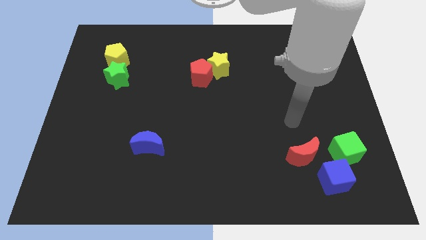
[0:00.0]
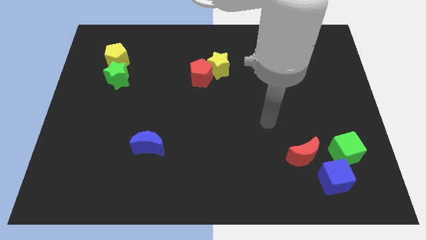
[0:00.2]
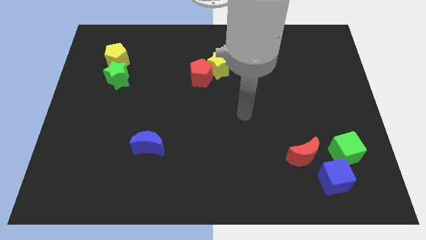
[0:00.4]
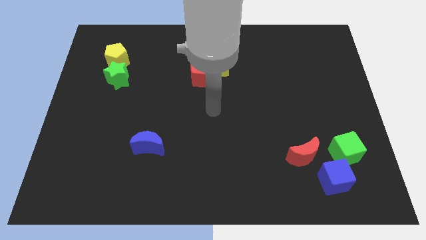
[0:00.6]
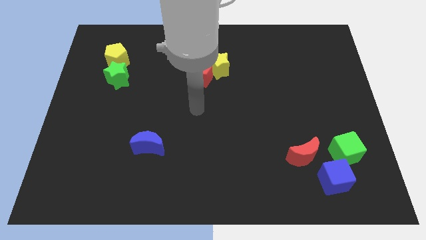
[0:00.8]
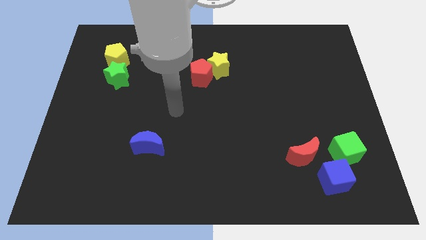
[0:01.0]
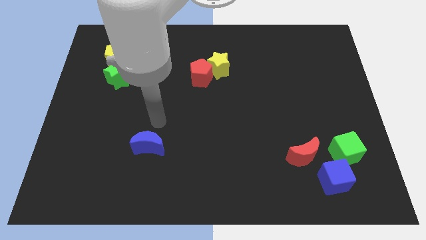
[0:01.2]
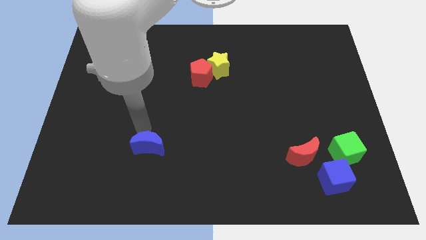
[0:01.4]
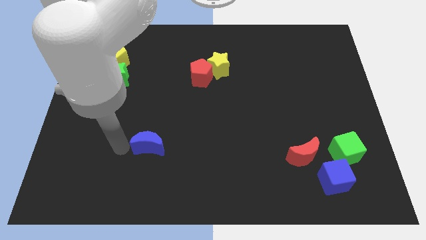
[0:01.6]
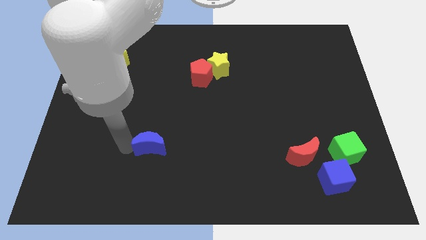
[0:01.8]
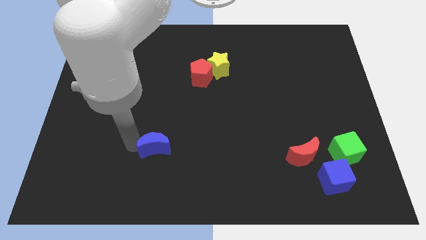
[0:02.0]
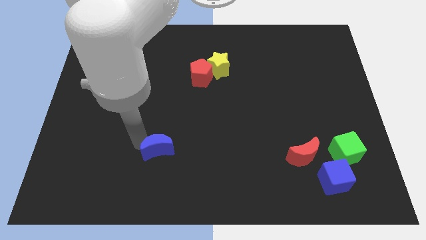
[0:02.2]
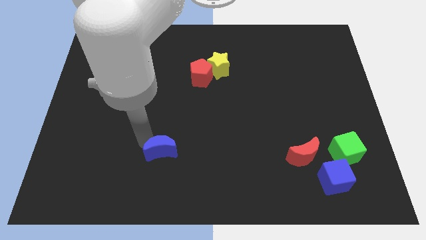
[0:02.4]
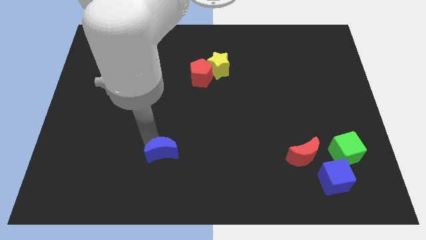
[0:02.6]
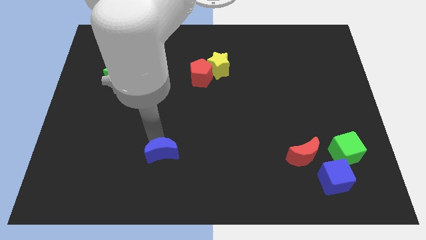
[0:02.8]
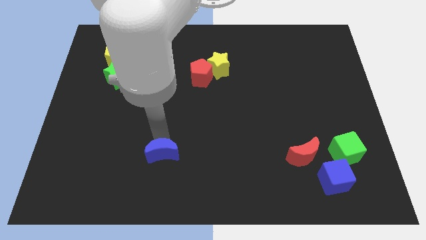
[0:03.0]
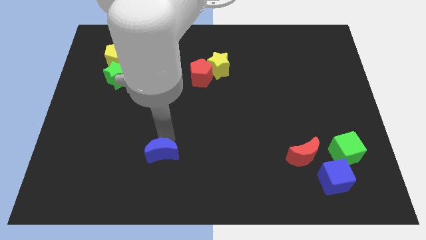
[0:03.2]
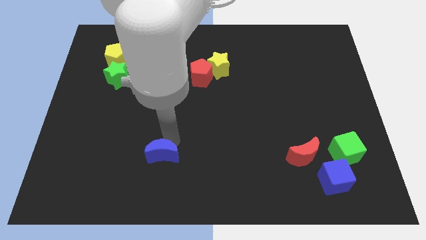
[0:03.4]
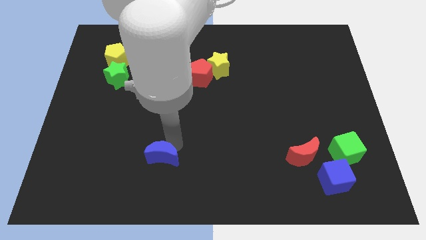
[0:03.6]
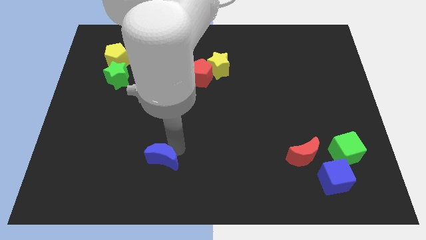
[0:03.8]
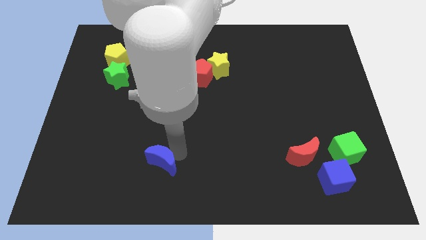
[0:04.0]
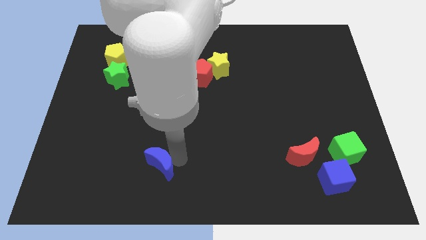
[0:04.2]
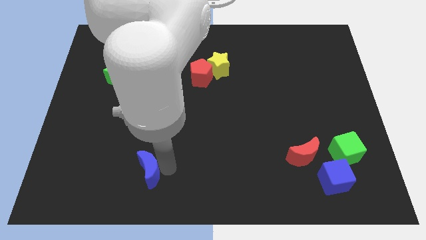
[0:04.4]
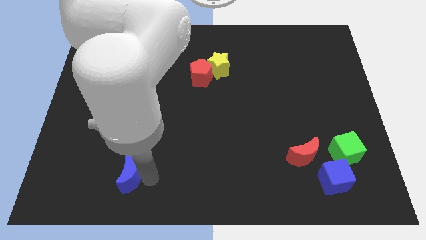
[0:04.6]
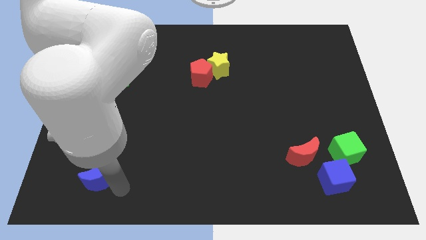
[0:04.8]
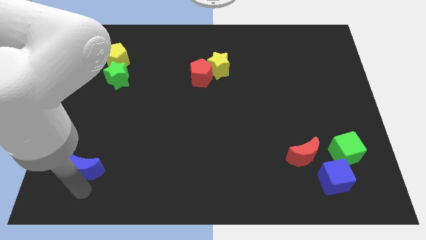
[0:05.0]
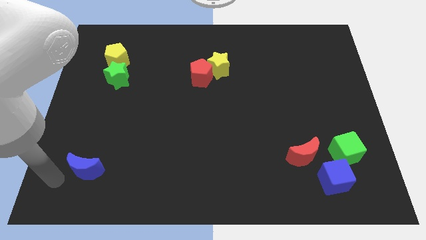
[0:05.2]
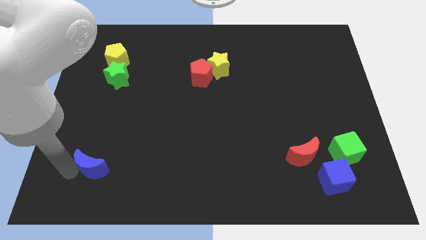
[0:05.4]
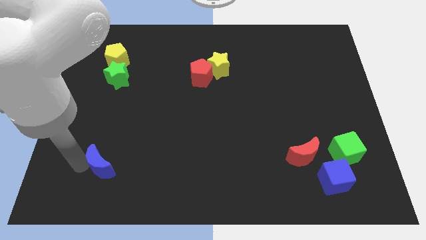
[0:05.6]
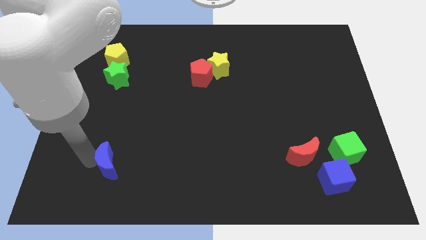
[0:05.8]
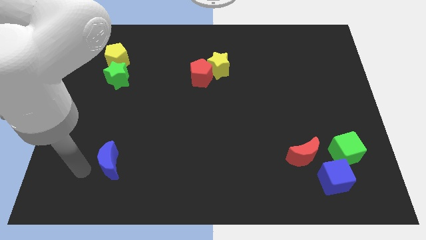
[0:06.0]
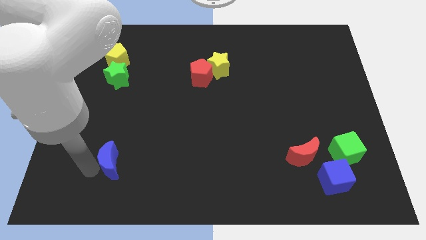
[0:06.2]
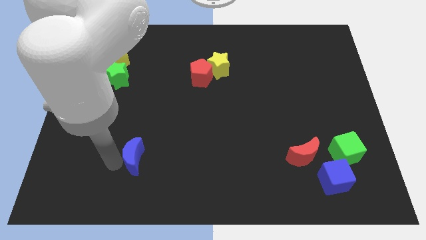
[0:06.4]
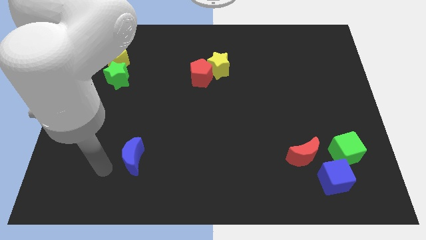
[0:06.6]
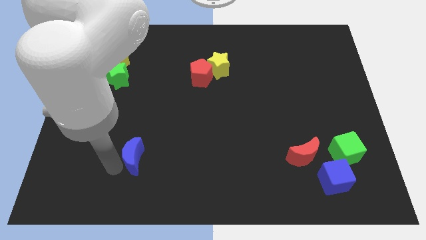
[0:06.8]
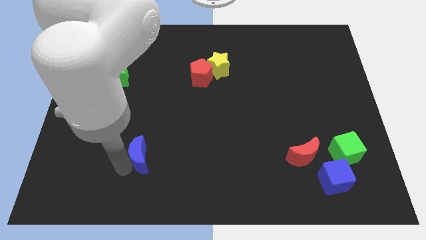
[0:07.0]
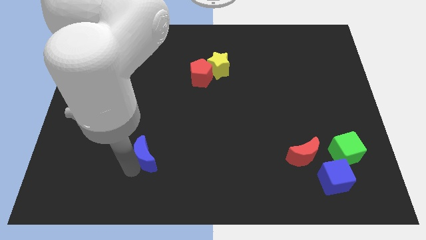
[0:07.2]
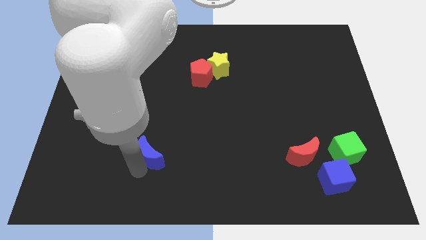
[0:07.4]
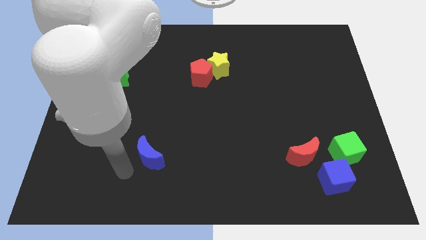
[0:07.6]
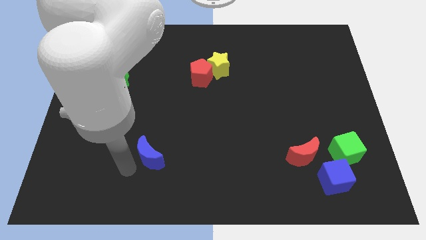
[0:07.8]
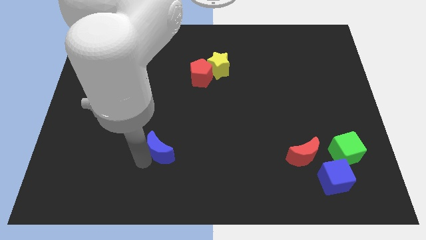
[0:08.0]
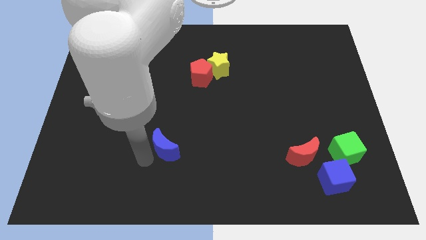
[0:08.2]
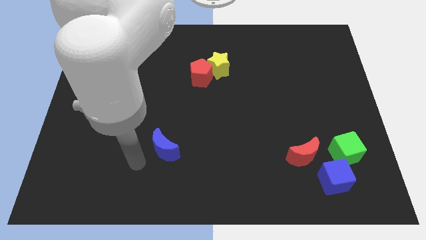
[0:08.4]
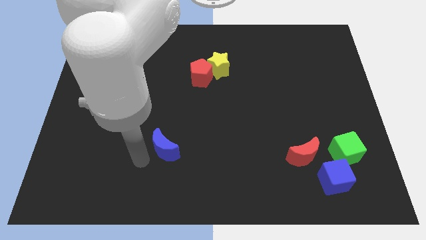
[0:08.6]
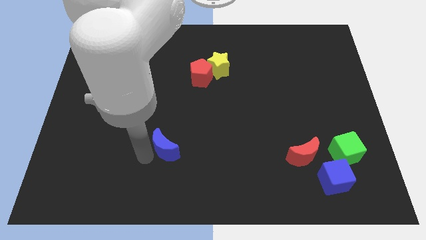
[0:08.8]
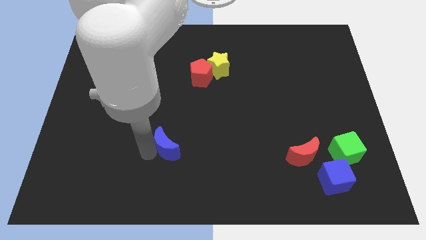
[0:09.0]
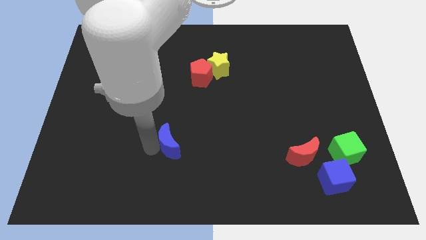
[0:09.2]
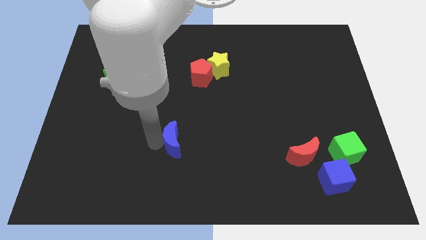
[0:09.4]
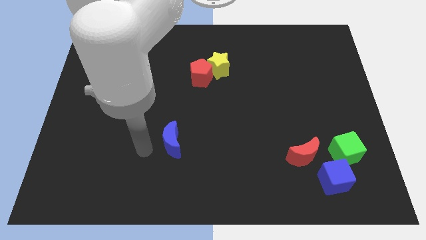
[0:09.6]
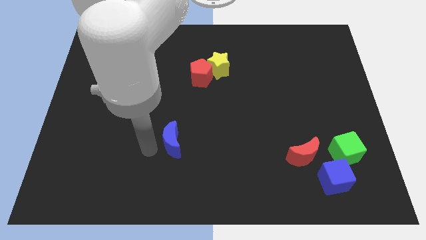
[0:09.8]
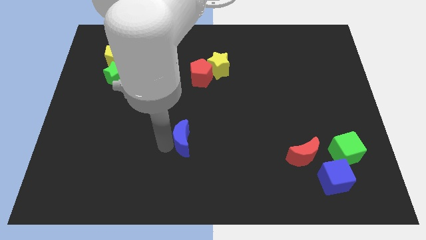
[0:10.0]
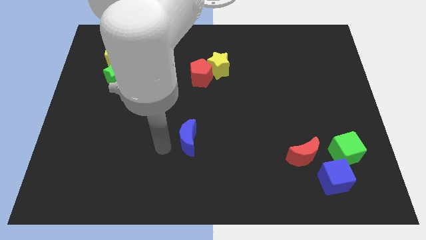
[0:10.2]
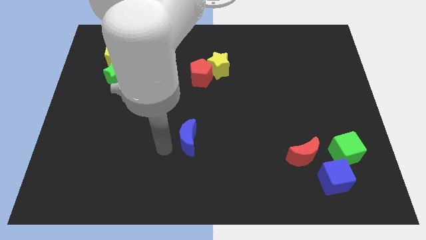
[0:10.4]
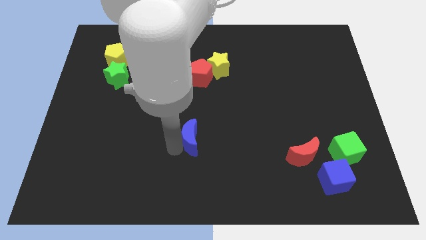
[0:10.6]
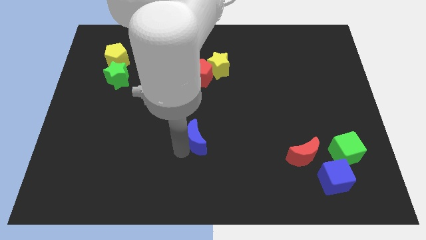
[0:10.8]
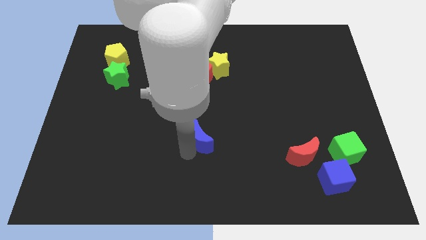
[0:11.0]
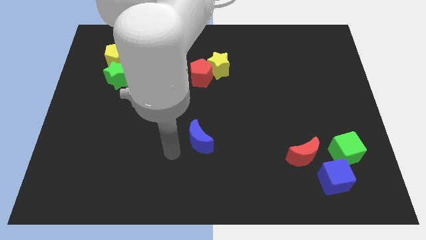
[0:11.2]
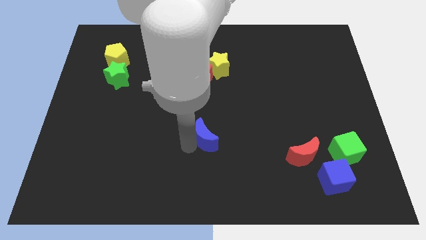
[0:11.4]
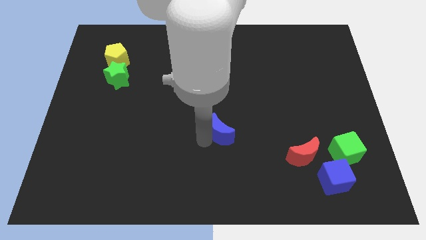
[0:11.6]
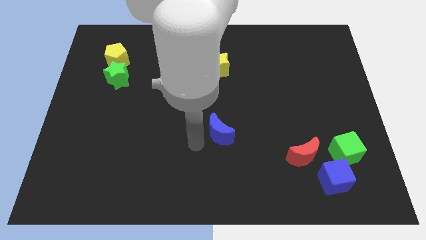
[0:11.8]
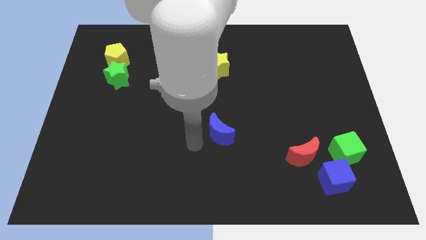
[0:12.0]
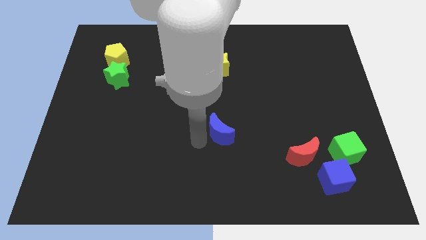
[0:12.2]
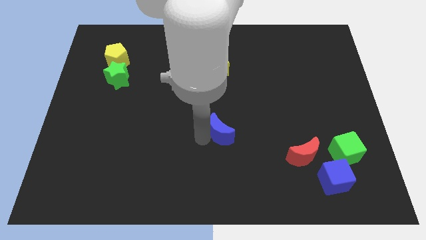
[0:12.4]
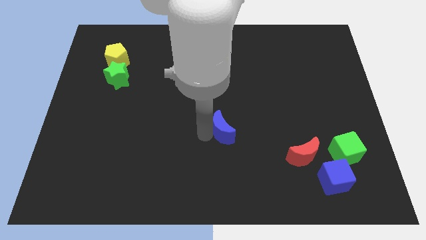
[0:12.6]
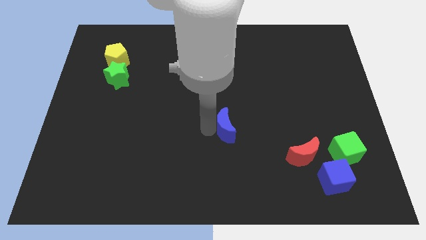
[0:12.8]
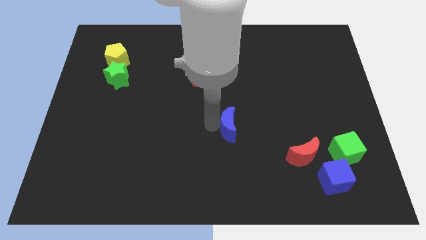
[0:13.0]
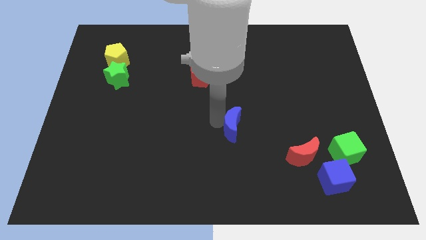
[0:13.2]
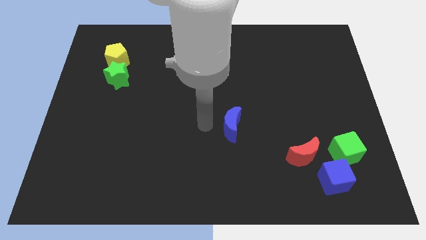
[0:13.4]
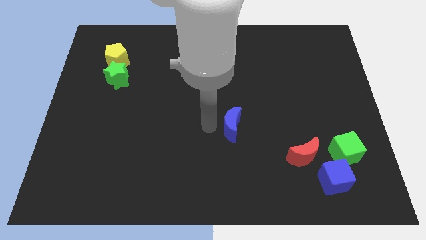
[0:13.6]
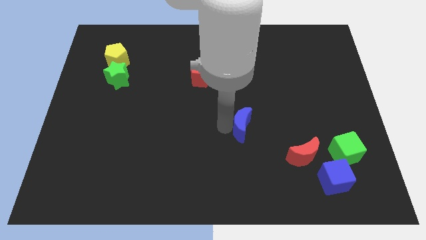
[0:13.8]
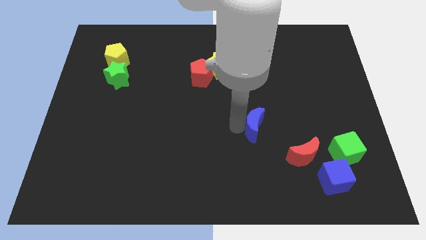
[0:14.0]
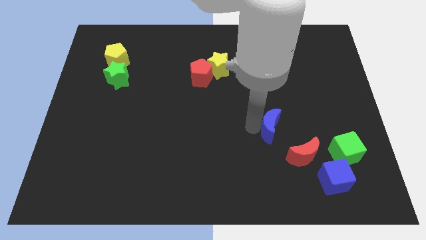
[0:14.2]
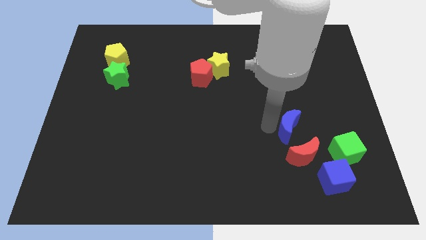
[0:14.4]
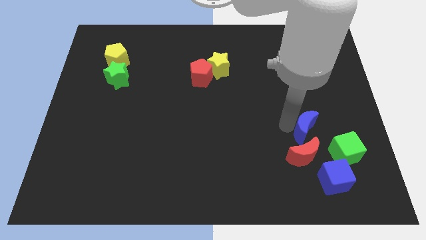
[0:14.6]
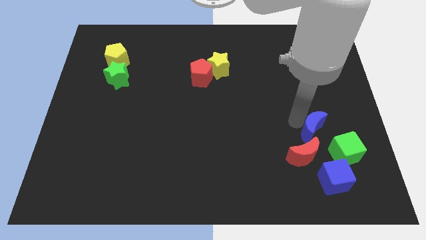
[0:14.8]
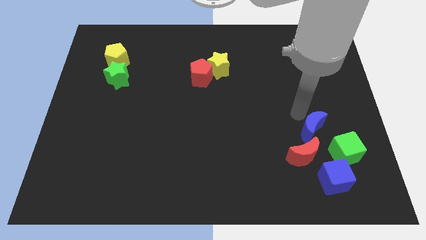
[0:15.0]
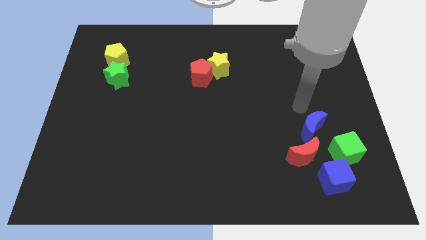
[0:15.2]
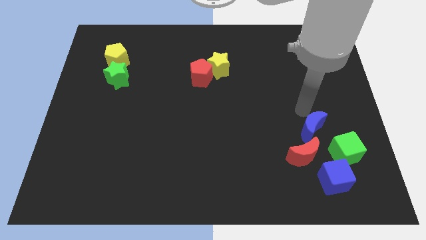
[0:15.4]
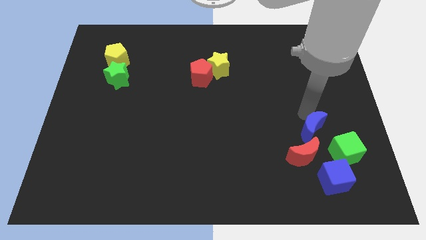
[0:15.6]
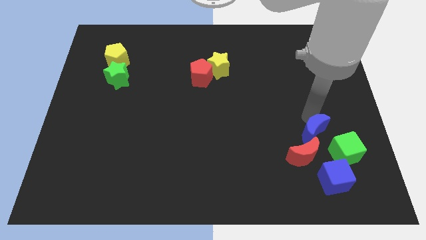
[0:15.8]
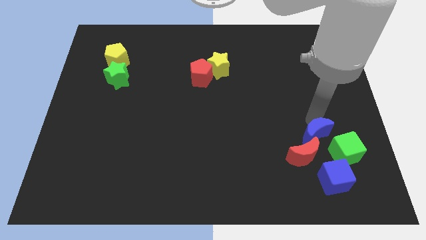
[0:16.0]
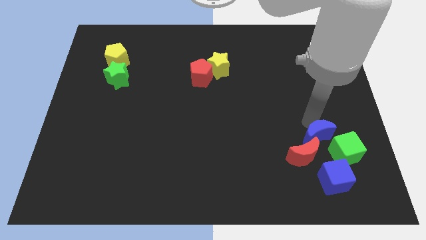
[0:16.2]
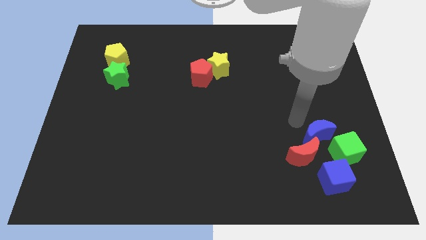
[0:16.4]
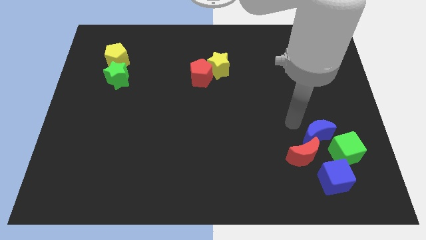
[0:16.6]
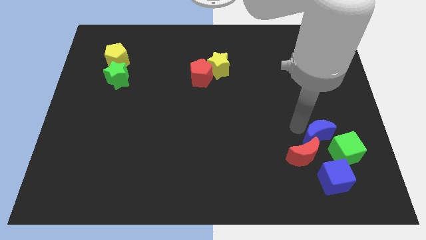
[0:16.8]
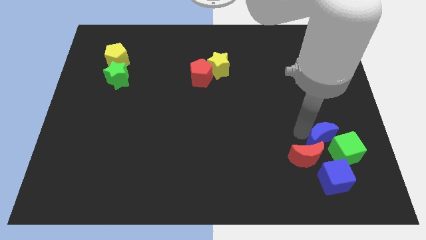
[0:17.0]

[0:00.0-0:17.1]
slide the blue moon to the green cube
